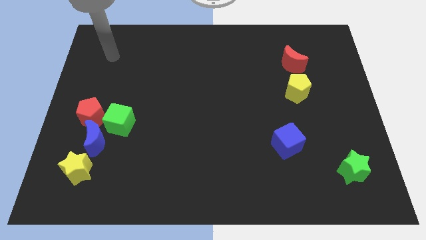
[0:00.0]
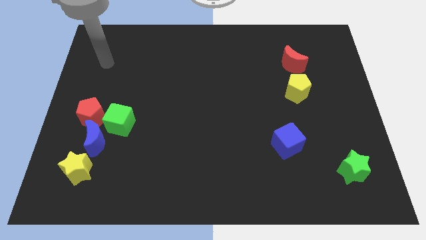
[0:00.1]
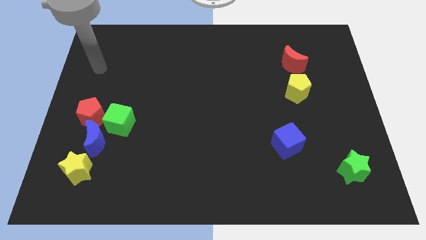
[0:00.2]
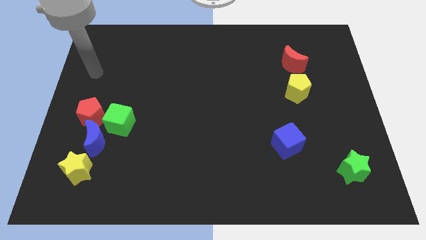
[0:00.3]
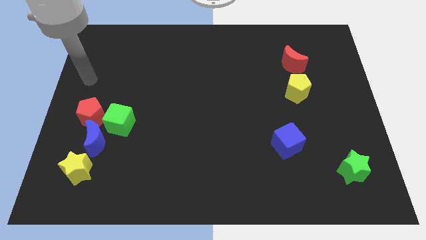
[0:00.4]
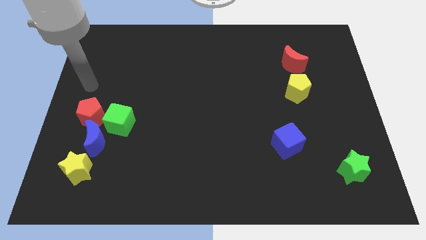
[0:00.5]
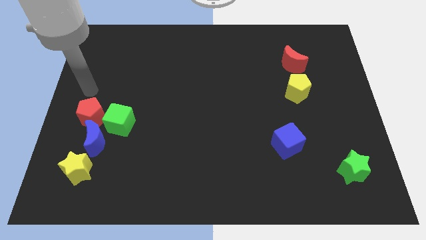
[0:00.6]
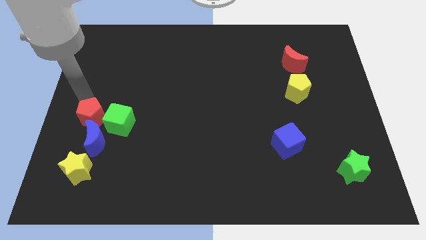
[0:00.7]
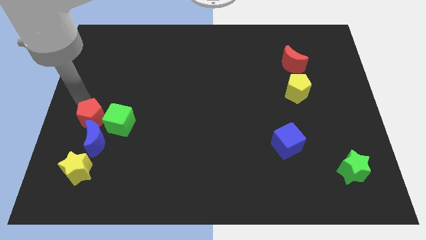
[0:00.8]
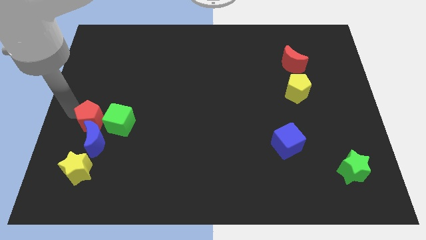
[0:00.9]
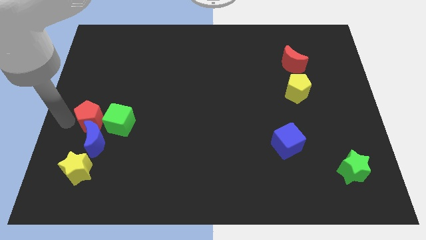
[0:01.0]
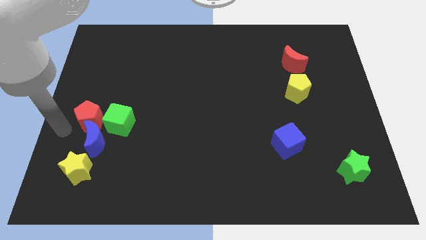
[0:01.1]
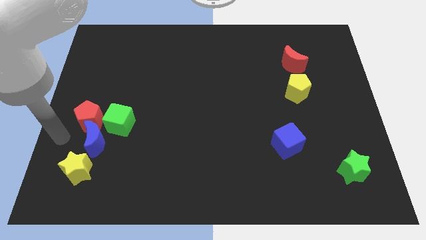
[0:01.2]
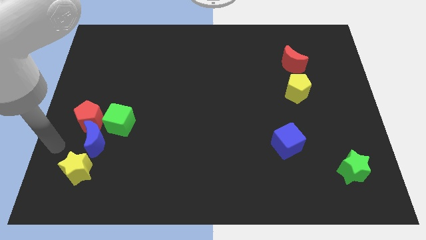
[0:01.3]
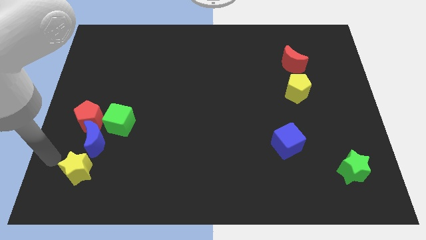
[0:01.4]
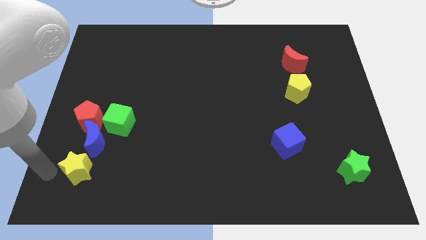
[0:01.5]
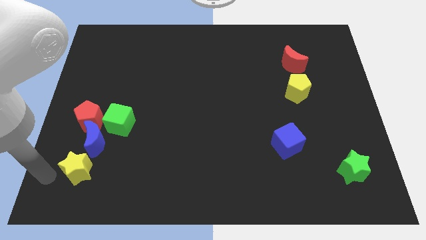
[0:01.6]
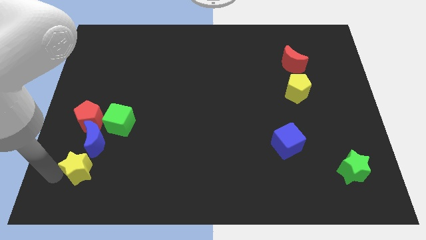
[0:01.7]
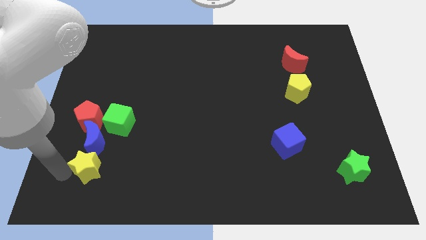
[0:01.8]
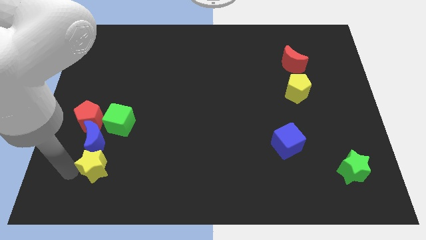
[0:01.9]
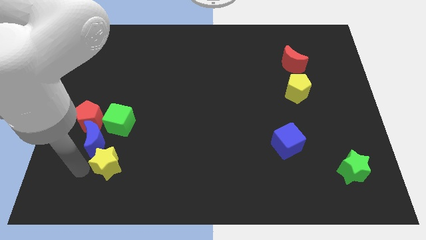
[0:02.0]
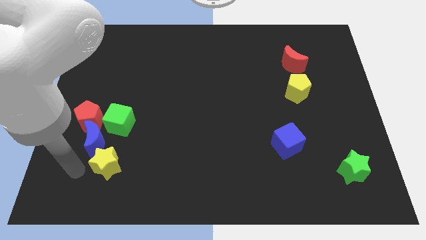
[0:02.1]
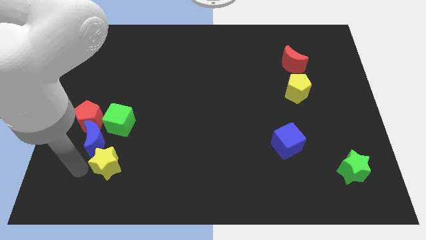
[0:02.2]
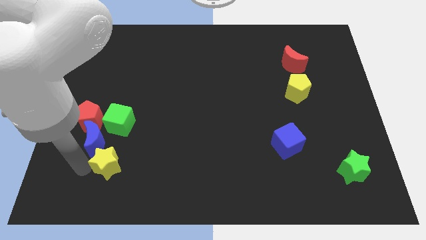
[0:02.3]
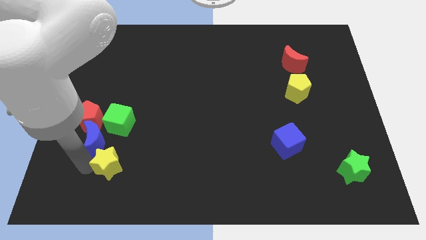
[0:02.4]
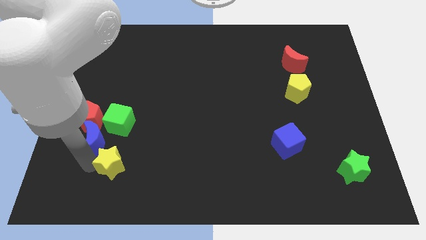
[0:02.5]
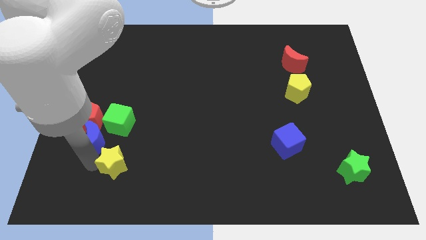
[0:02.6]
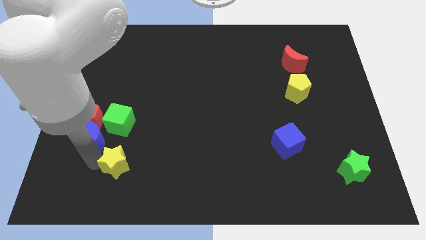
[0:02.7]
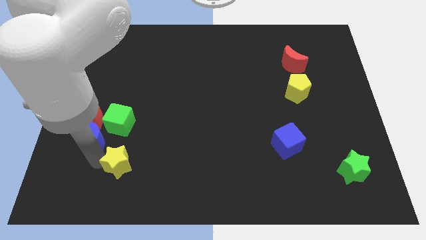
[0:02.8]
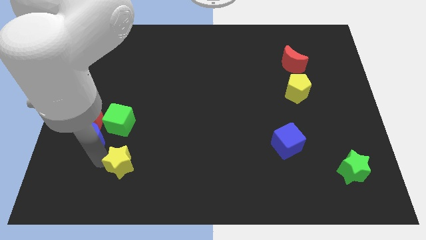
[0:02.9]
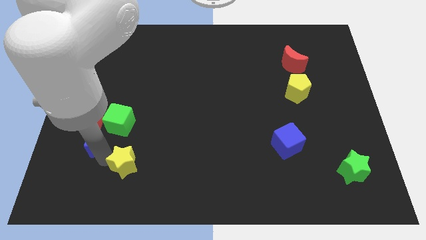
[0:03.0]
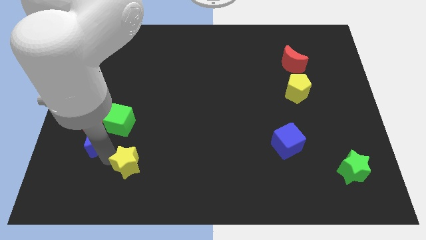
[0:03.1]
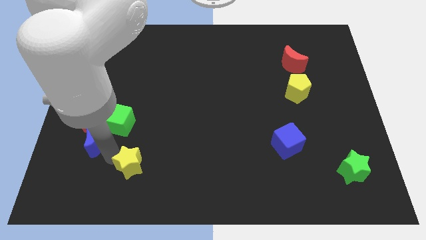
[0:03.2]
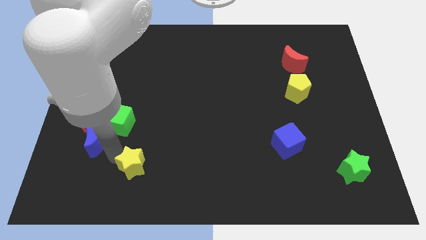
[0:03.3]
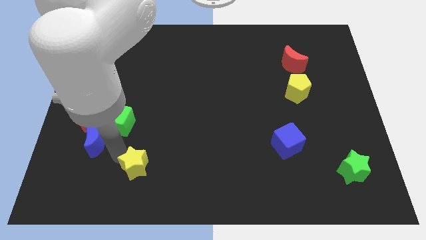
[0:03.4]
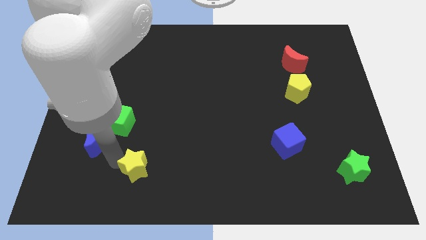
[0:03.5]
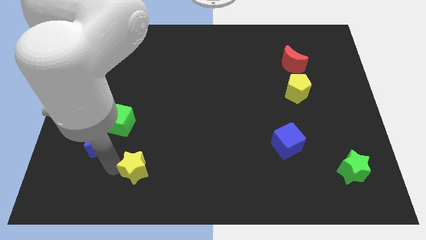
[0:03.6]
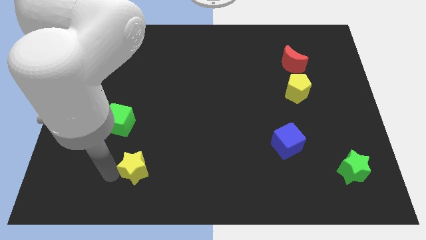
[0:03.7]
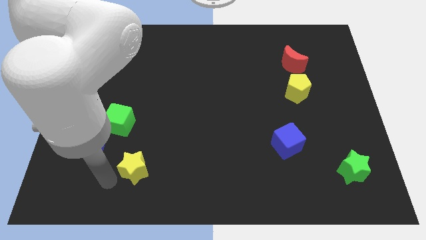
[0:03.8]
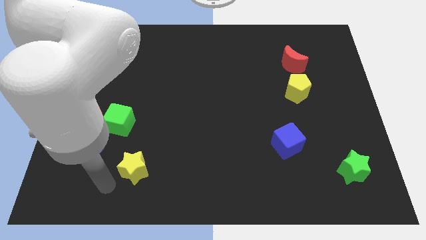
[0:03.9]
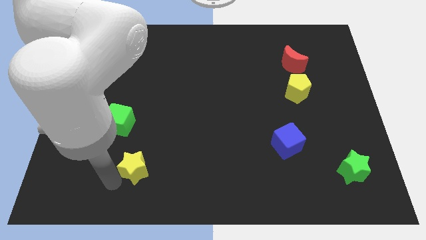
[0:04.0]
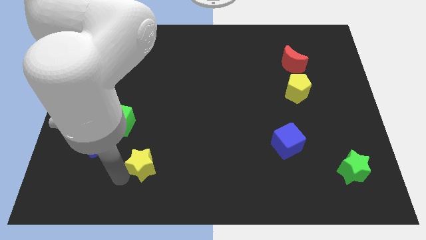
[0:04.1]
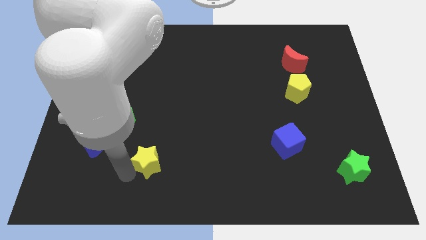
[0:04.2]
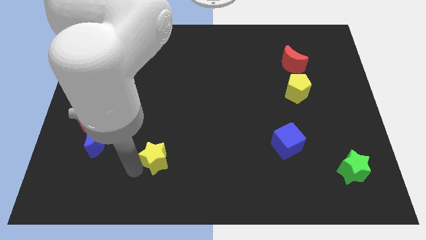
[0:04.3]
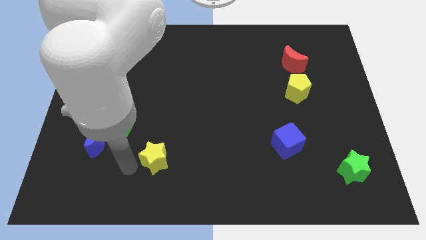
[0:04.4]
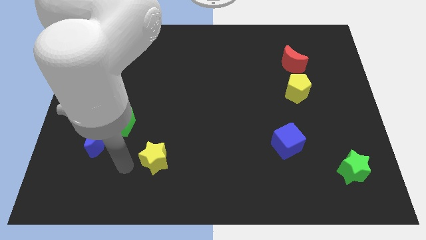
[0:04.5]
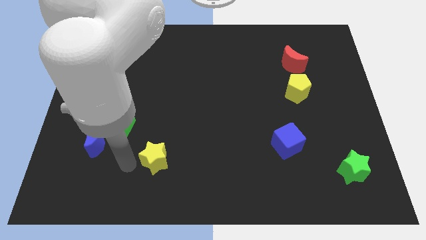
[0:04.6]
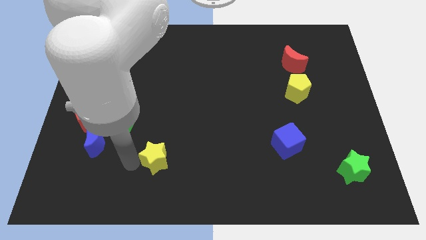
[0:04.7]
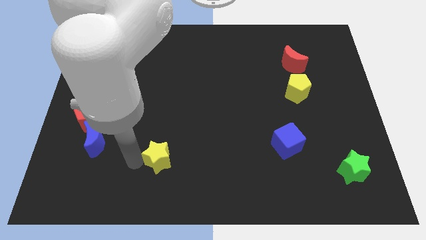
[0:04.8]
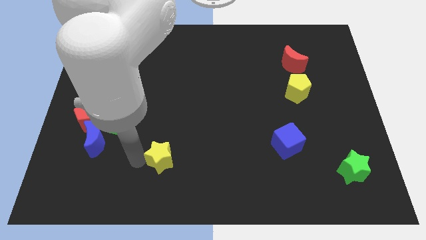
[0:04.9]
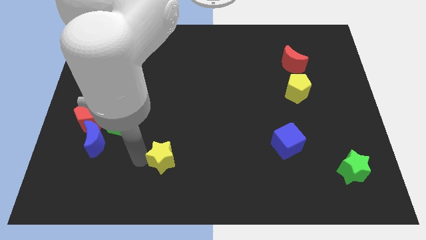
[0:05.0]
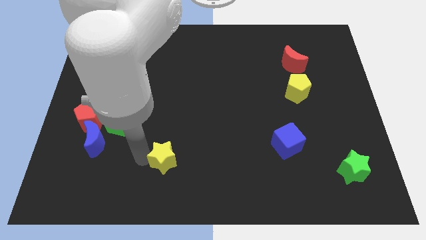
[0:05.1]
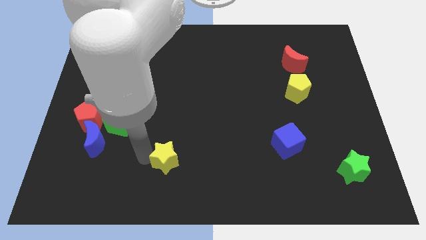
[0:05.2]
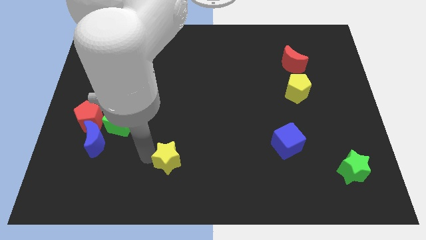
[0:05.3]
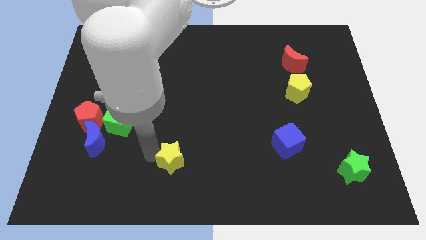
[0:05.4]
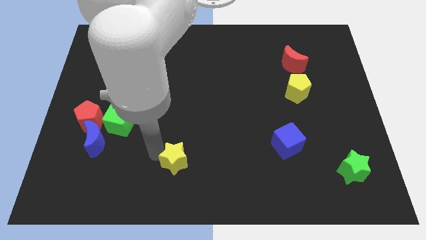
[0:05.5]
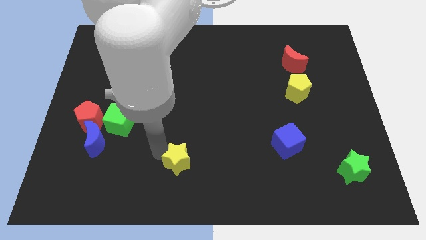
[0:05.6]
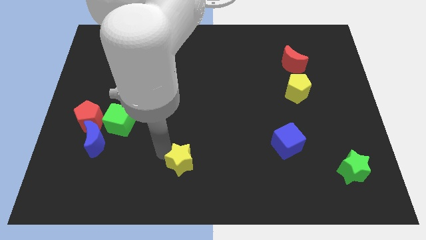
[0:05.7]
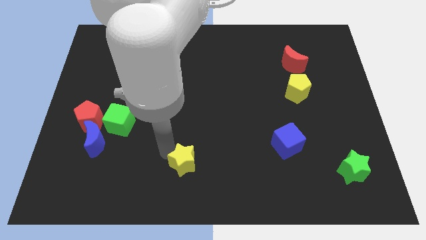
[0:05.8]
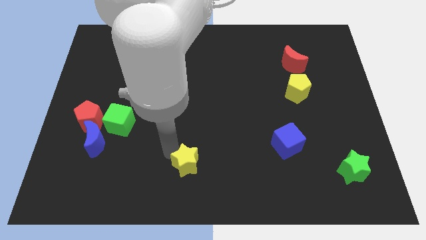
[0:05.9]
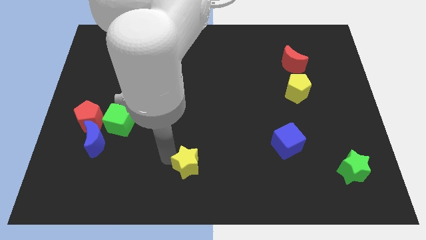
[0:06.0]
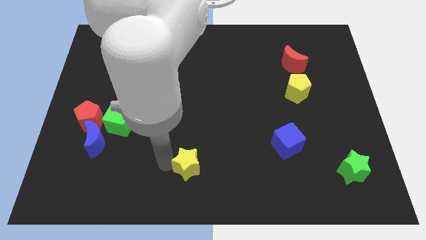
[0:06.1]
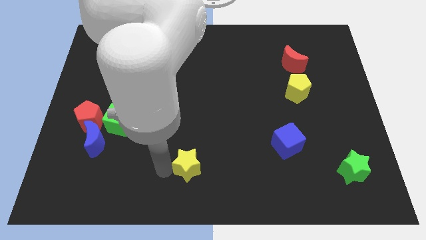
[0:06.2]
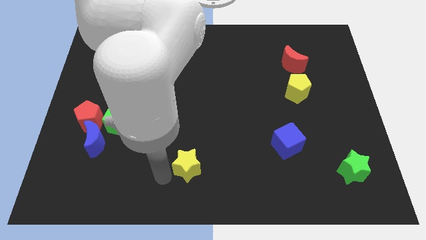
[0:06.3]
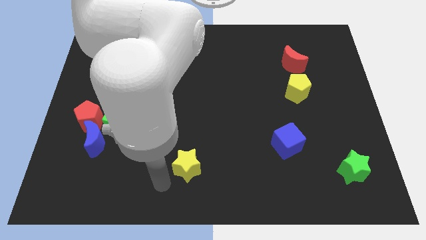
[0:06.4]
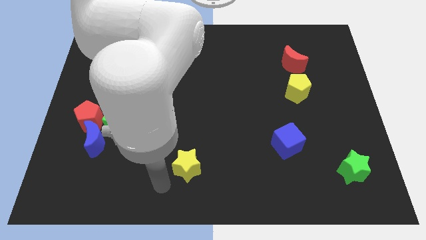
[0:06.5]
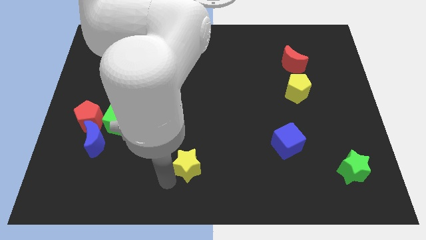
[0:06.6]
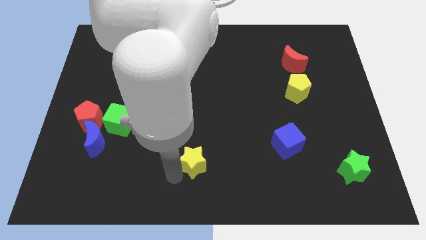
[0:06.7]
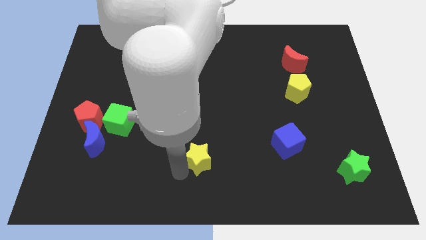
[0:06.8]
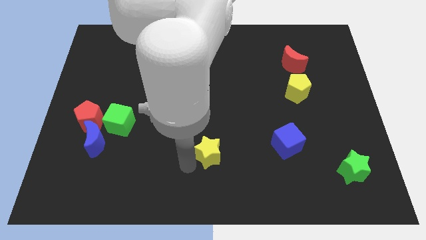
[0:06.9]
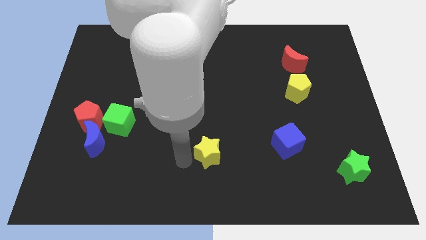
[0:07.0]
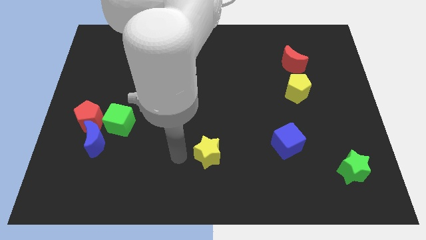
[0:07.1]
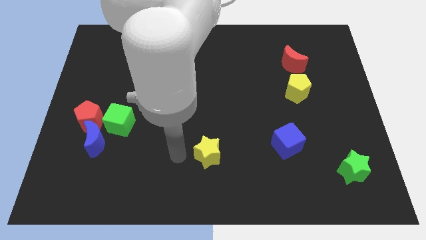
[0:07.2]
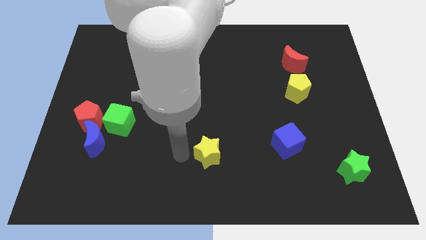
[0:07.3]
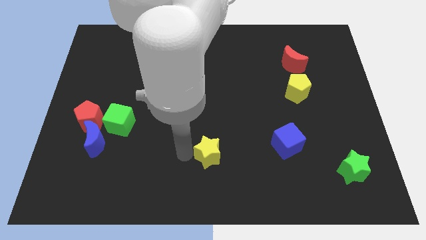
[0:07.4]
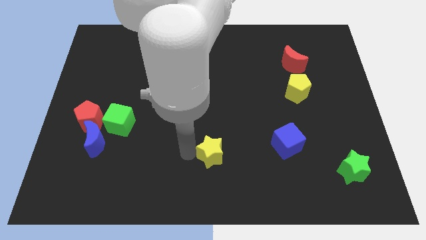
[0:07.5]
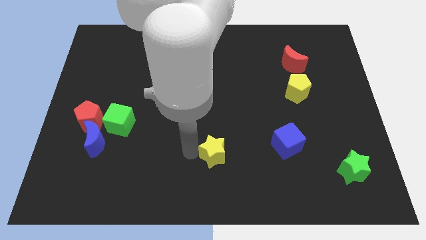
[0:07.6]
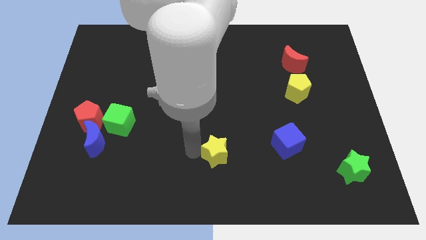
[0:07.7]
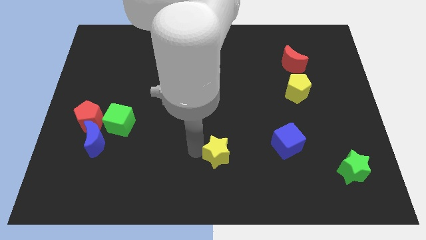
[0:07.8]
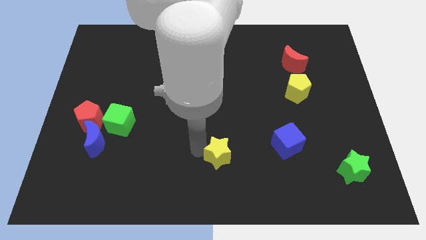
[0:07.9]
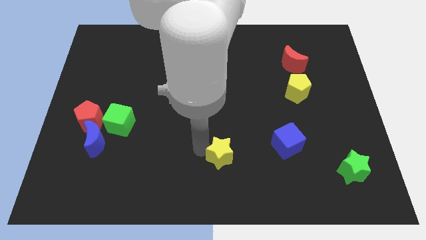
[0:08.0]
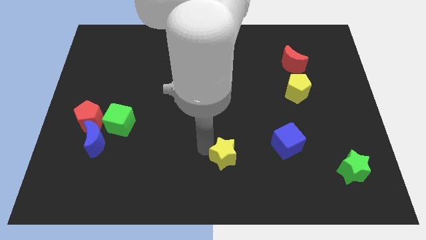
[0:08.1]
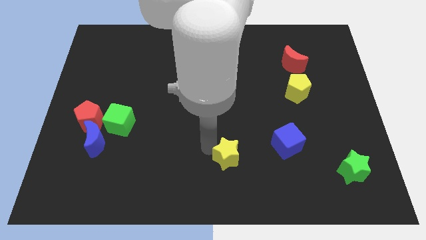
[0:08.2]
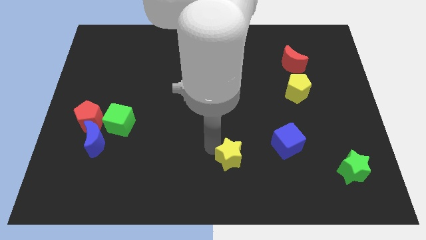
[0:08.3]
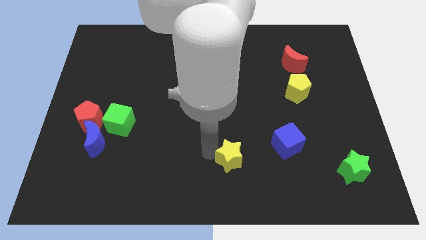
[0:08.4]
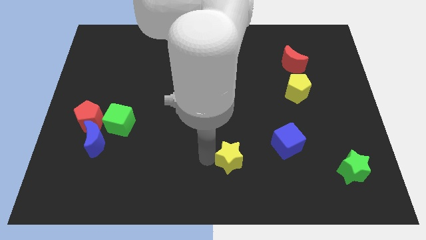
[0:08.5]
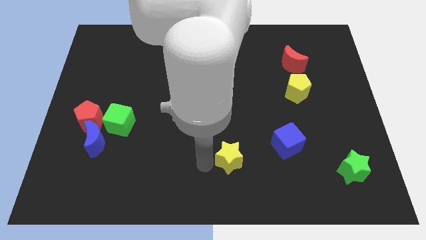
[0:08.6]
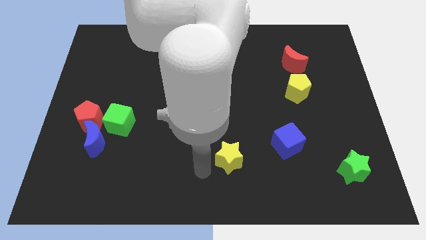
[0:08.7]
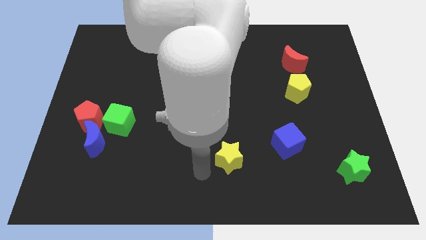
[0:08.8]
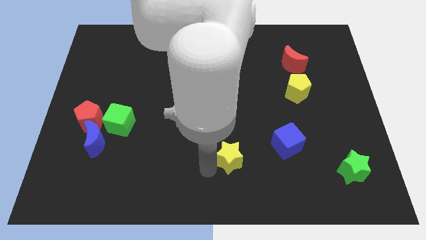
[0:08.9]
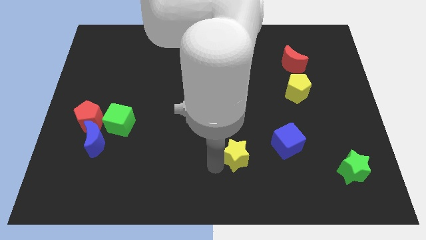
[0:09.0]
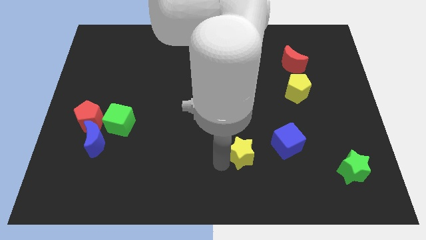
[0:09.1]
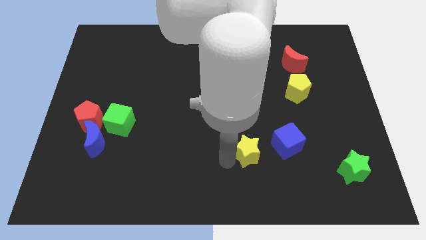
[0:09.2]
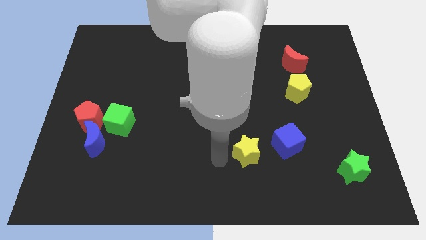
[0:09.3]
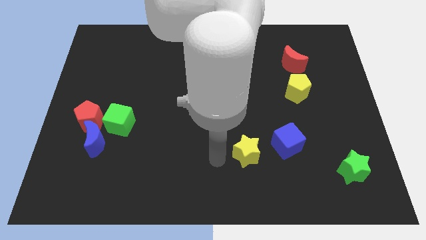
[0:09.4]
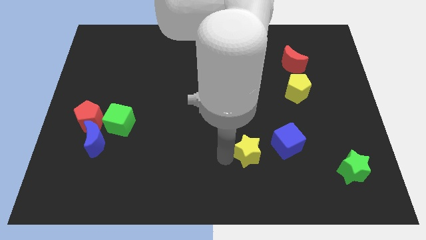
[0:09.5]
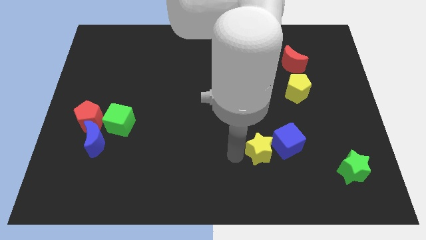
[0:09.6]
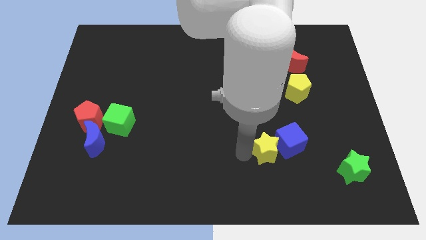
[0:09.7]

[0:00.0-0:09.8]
put the yellow star to the blue cube
